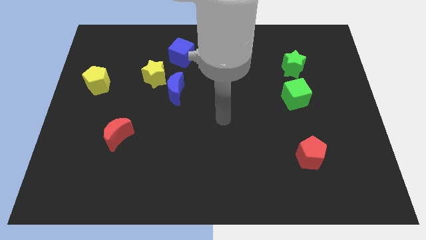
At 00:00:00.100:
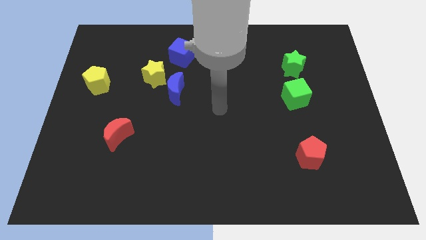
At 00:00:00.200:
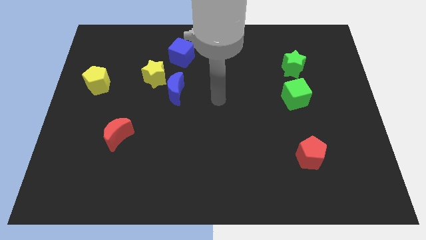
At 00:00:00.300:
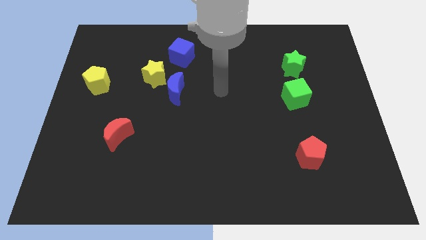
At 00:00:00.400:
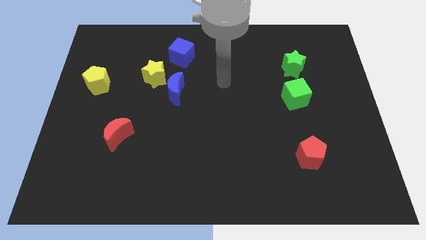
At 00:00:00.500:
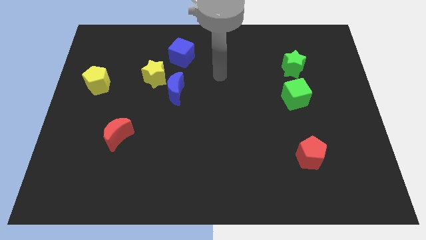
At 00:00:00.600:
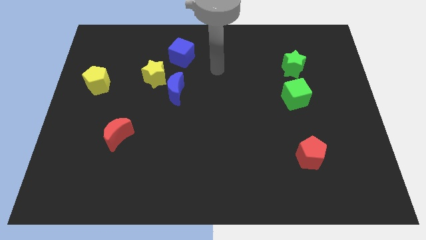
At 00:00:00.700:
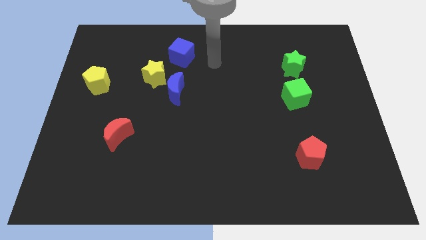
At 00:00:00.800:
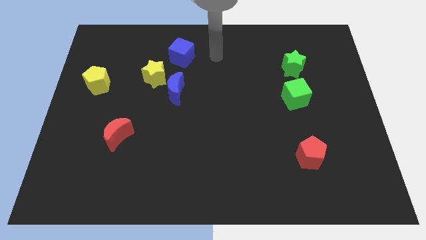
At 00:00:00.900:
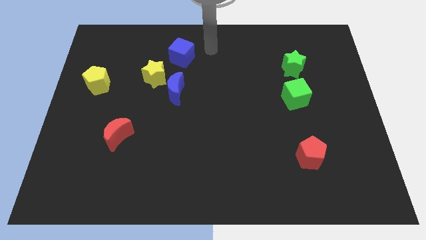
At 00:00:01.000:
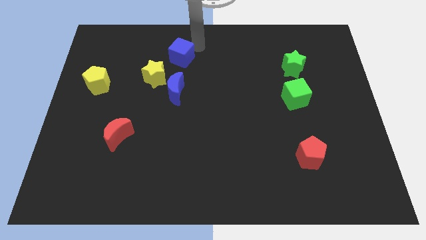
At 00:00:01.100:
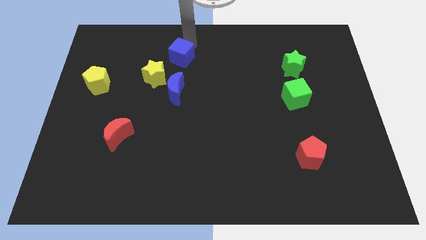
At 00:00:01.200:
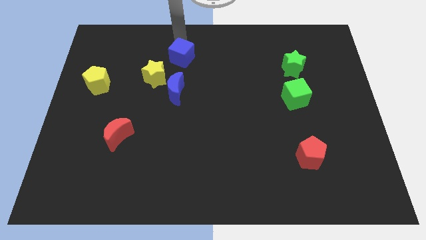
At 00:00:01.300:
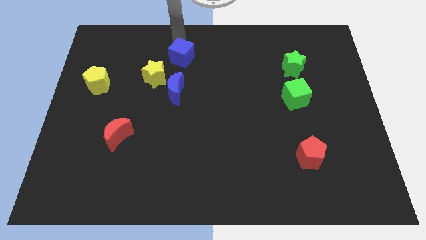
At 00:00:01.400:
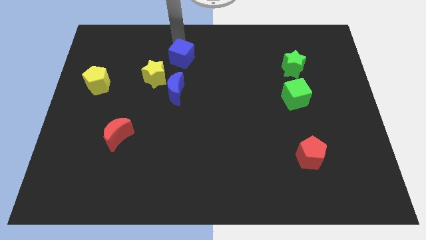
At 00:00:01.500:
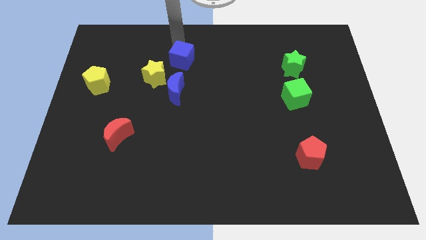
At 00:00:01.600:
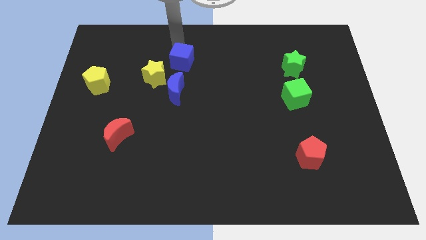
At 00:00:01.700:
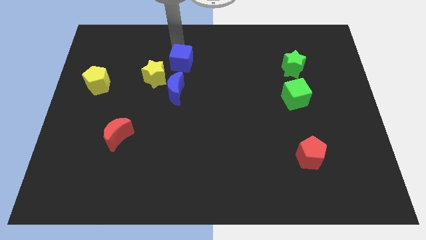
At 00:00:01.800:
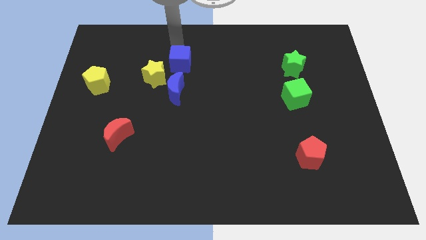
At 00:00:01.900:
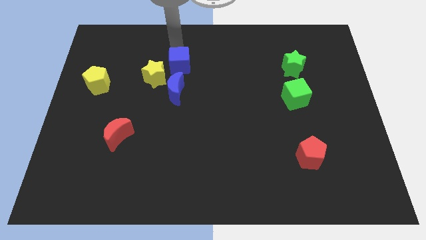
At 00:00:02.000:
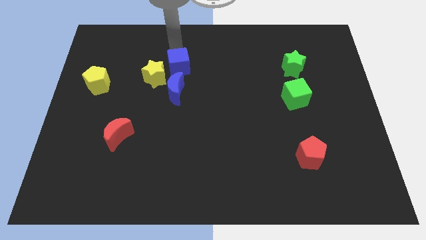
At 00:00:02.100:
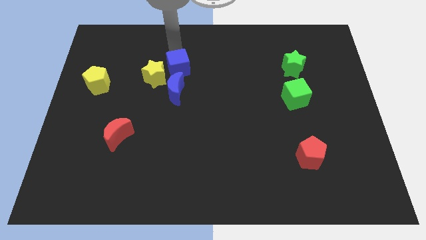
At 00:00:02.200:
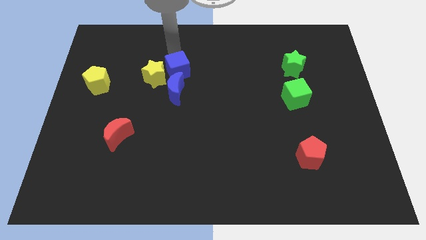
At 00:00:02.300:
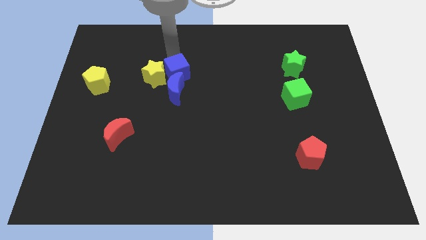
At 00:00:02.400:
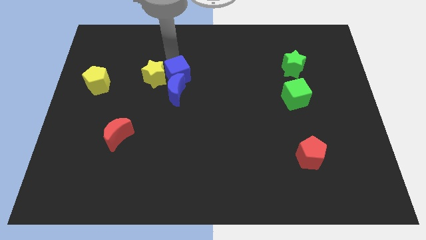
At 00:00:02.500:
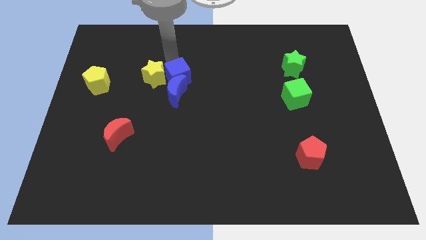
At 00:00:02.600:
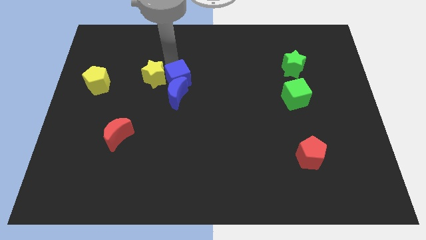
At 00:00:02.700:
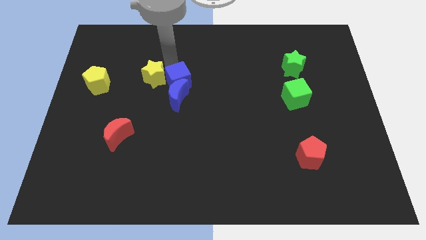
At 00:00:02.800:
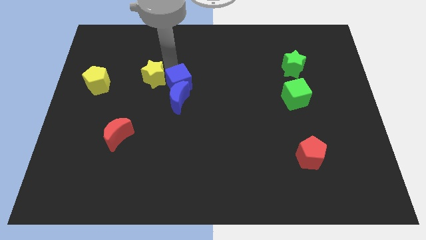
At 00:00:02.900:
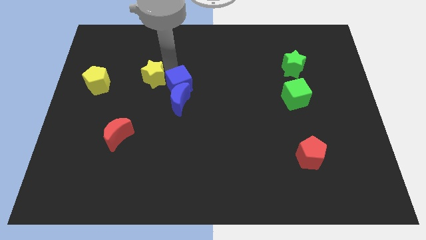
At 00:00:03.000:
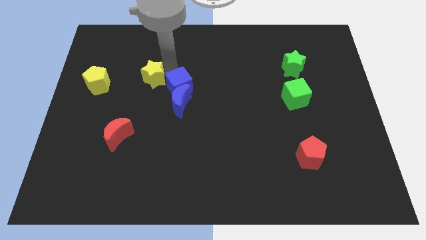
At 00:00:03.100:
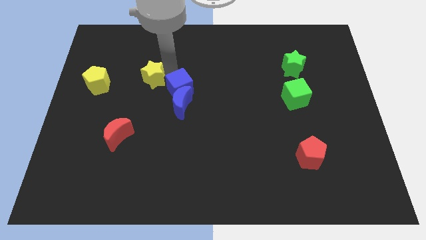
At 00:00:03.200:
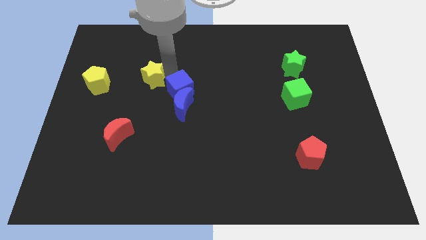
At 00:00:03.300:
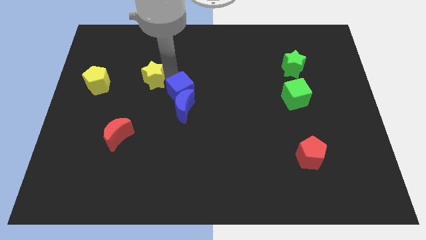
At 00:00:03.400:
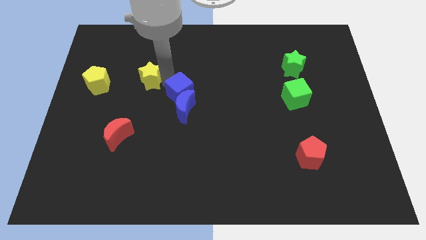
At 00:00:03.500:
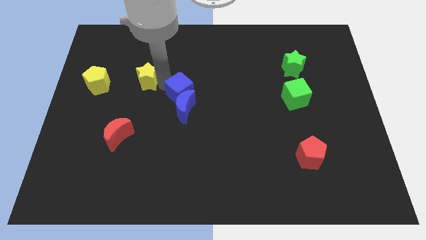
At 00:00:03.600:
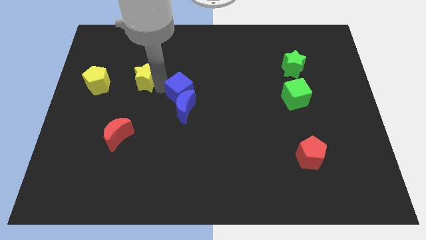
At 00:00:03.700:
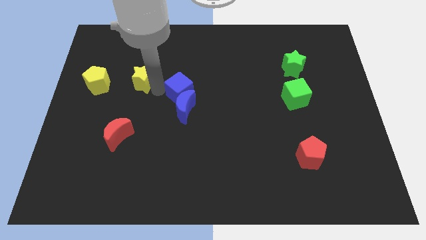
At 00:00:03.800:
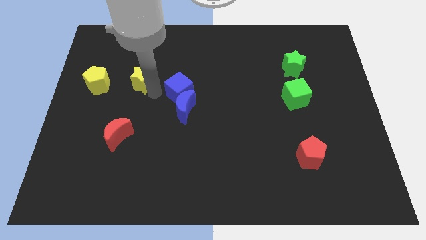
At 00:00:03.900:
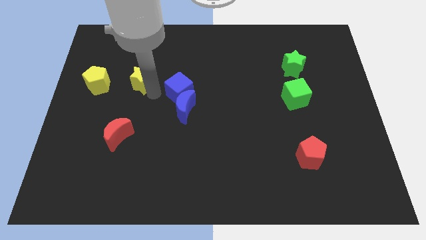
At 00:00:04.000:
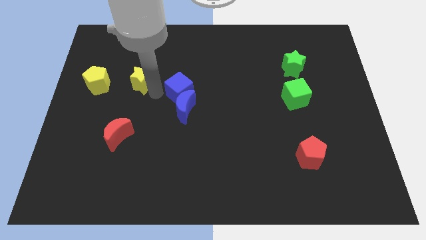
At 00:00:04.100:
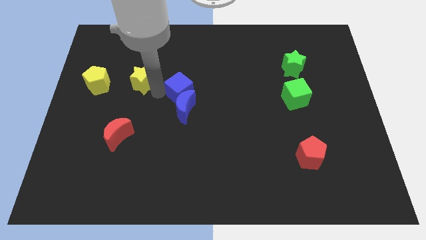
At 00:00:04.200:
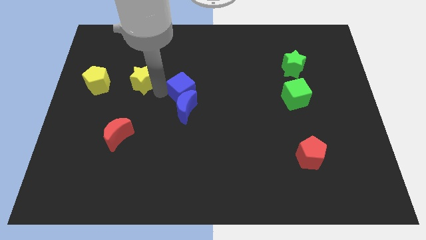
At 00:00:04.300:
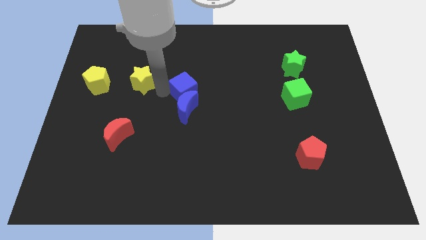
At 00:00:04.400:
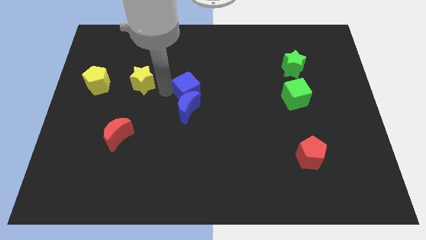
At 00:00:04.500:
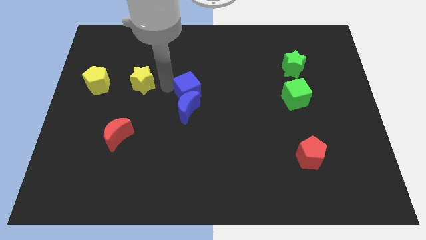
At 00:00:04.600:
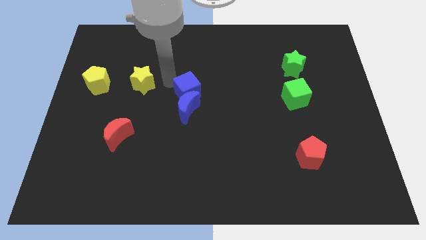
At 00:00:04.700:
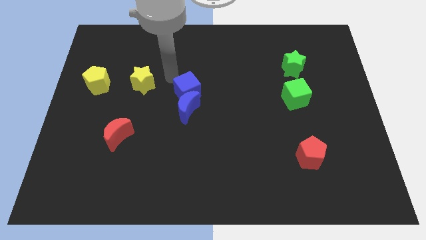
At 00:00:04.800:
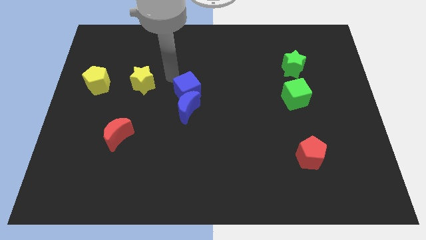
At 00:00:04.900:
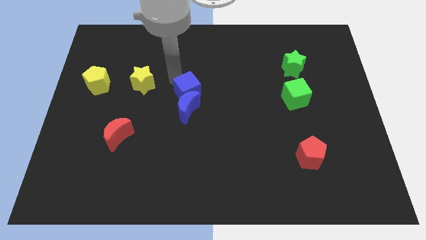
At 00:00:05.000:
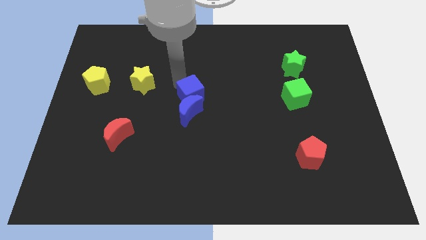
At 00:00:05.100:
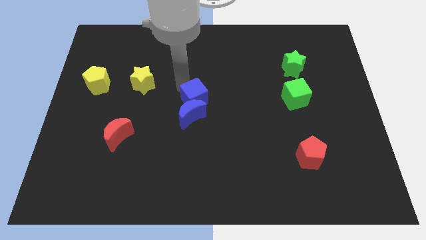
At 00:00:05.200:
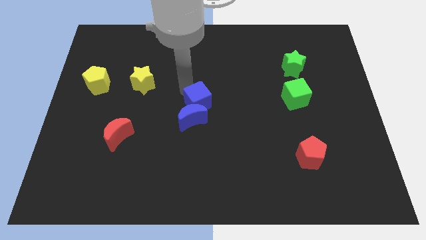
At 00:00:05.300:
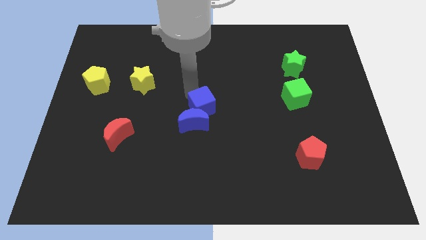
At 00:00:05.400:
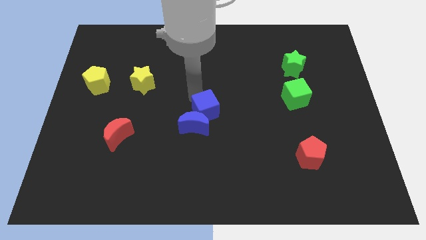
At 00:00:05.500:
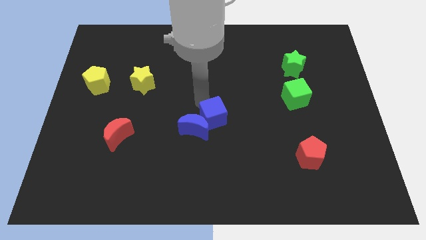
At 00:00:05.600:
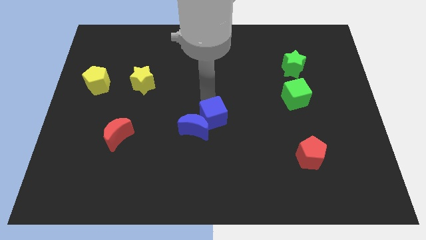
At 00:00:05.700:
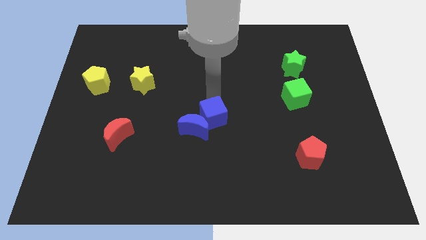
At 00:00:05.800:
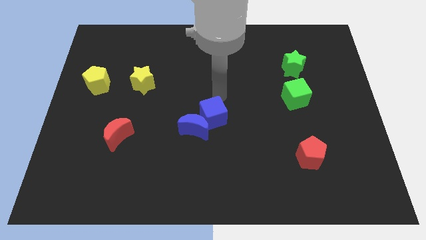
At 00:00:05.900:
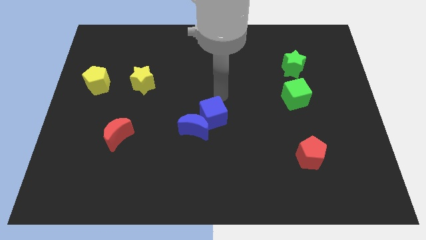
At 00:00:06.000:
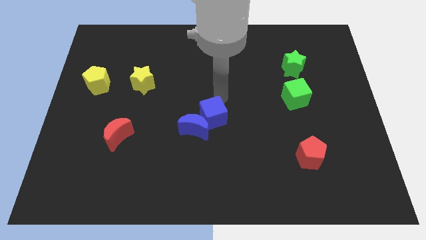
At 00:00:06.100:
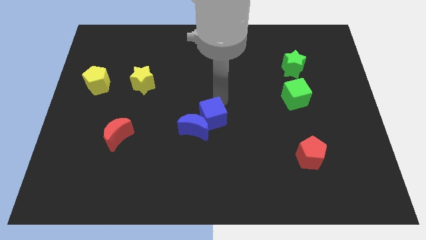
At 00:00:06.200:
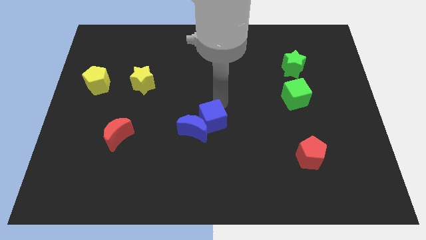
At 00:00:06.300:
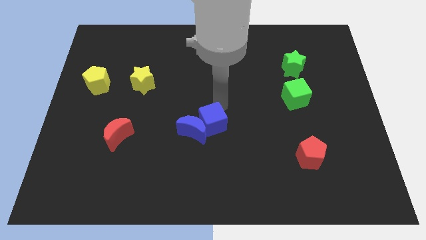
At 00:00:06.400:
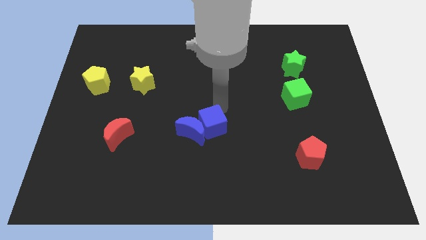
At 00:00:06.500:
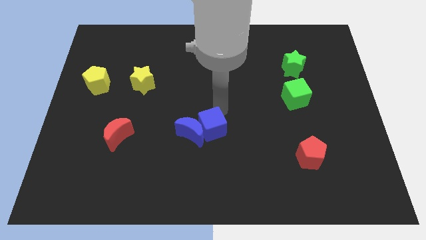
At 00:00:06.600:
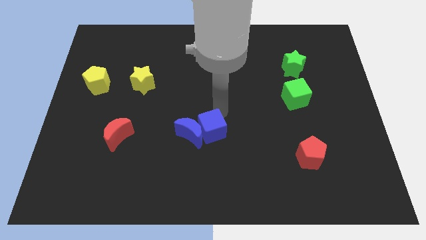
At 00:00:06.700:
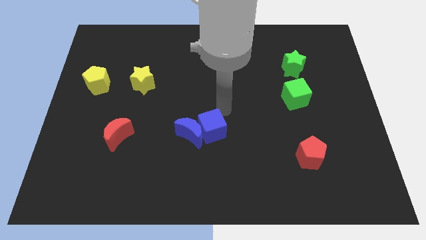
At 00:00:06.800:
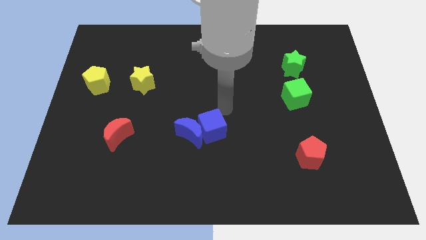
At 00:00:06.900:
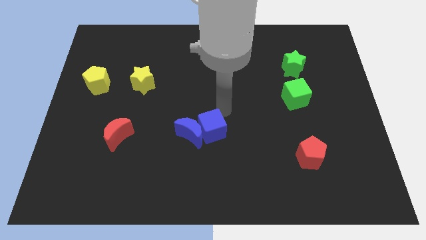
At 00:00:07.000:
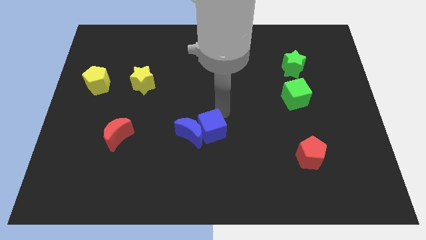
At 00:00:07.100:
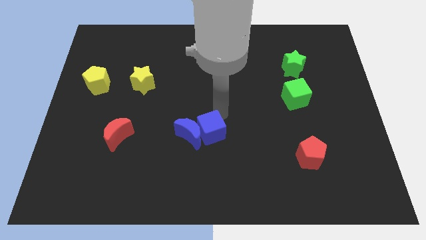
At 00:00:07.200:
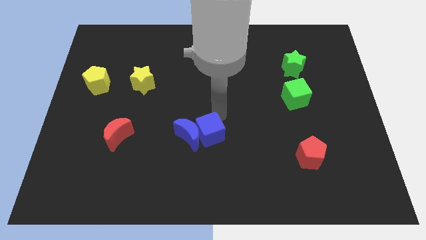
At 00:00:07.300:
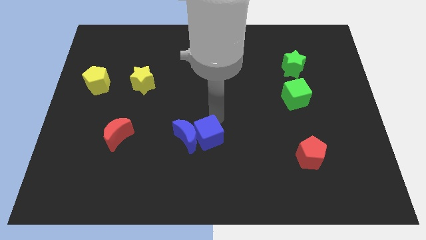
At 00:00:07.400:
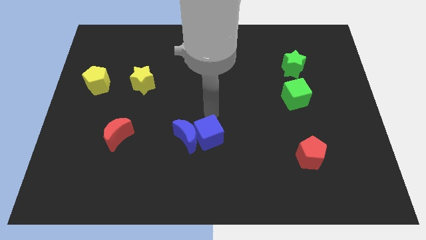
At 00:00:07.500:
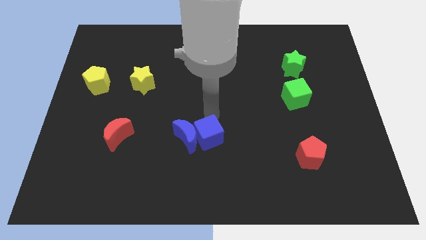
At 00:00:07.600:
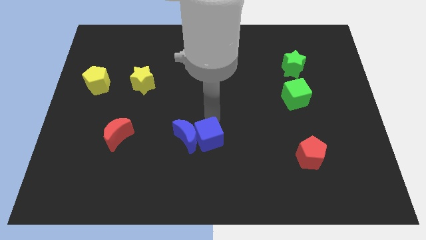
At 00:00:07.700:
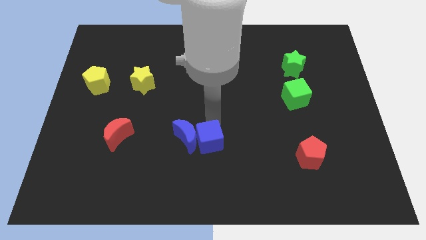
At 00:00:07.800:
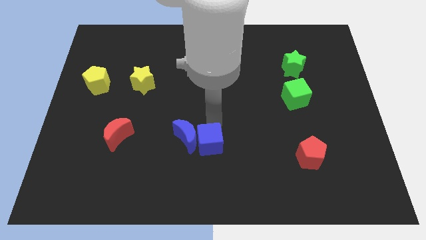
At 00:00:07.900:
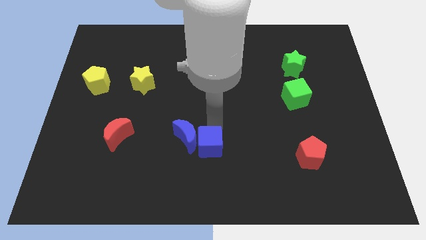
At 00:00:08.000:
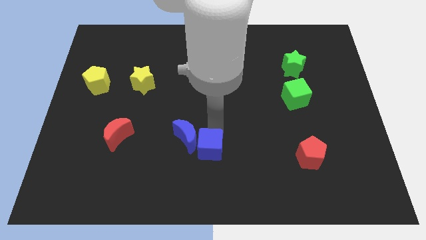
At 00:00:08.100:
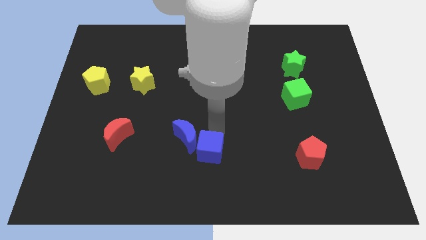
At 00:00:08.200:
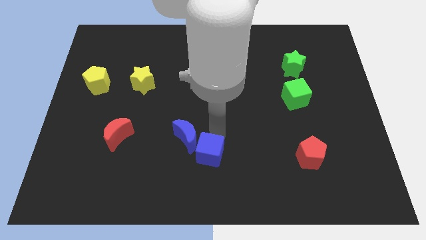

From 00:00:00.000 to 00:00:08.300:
put the blue cube to the bottom
